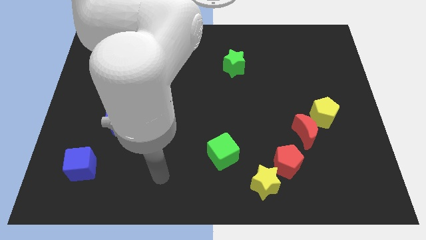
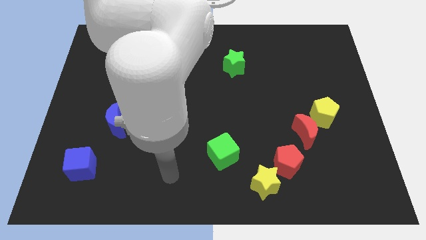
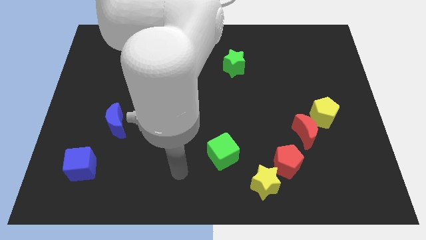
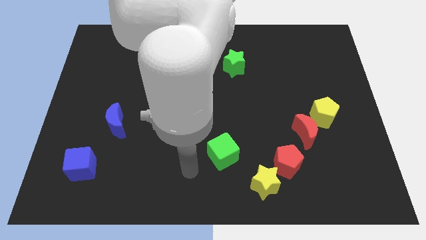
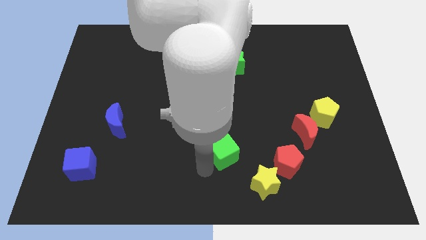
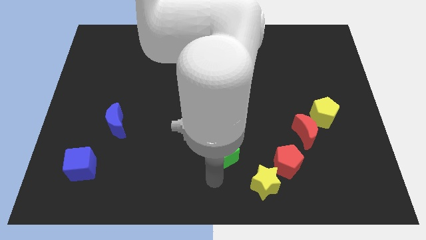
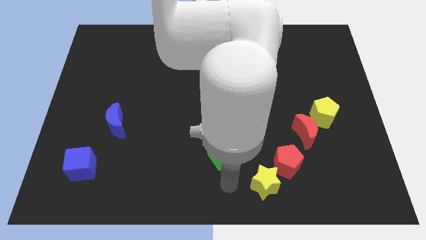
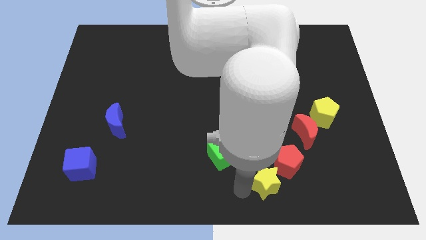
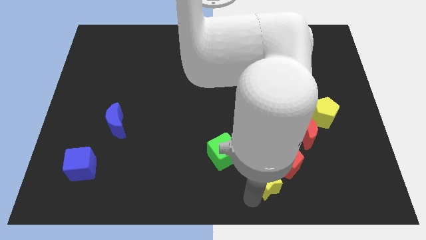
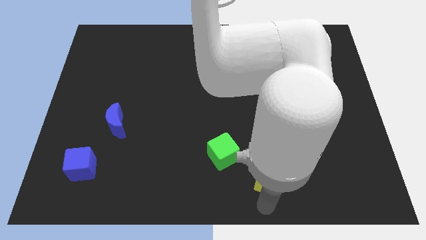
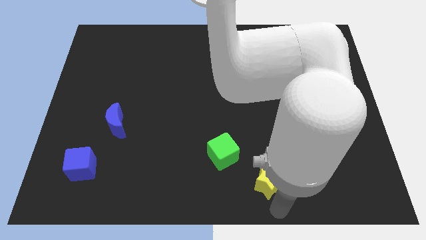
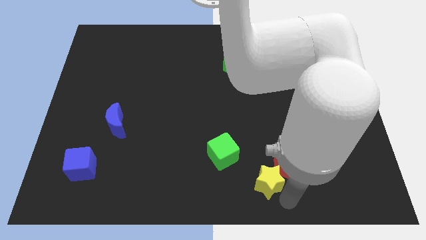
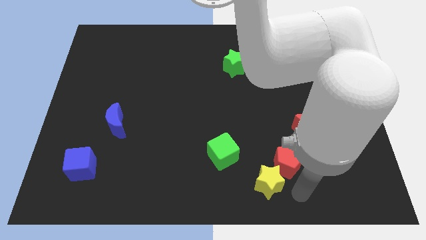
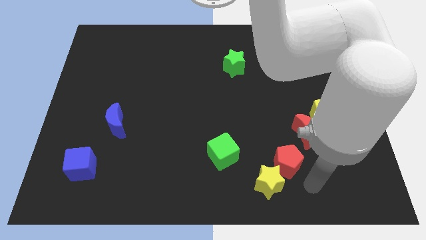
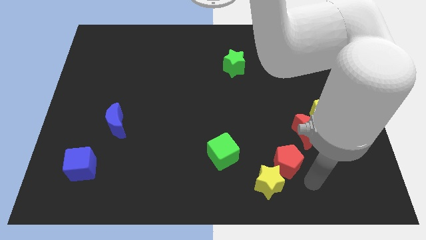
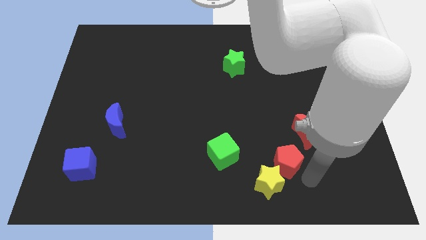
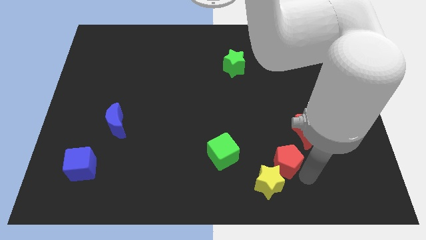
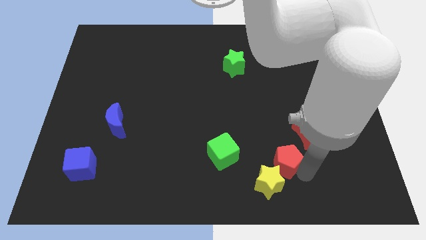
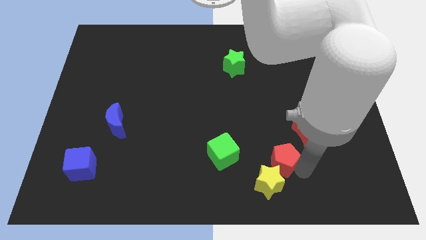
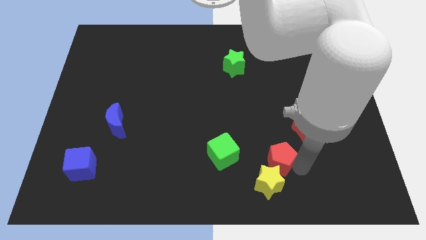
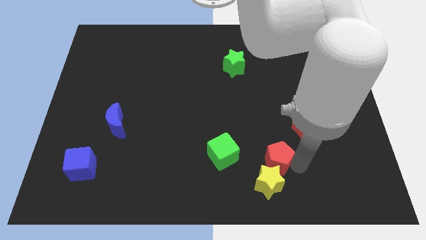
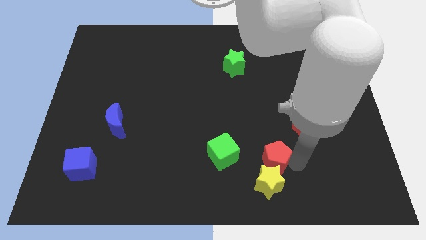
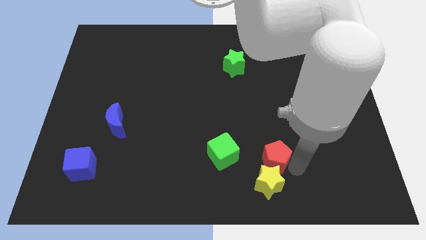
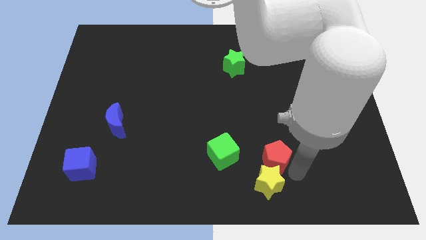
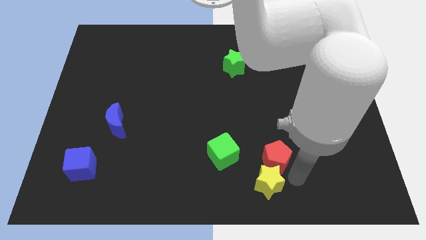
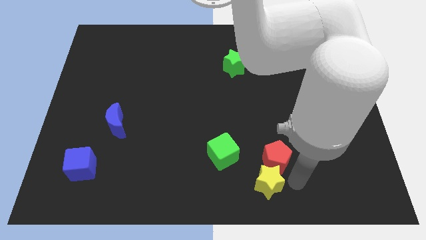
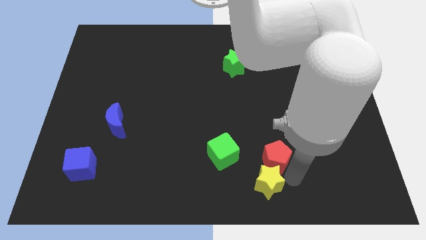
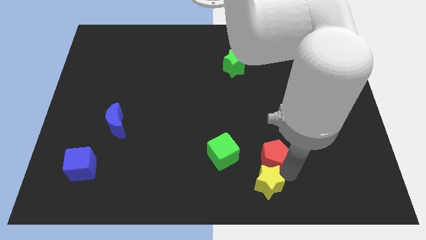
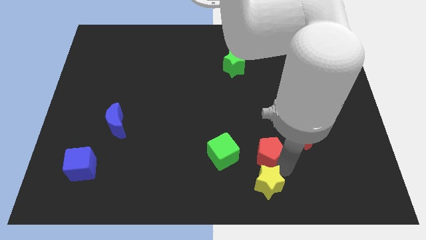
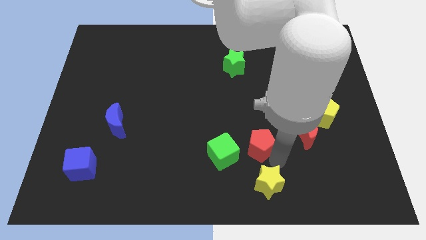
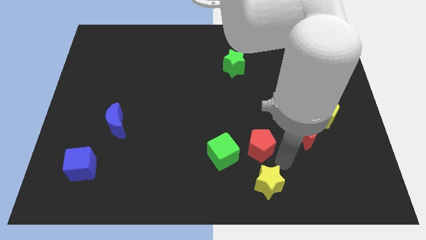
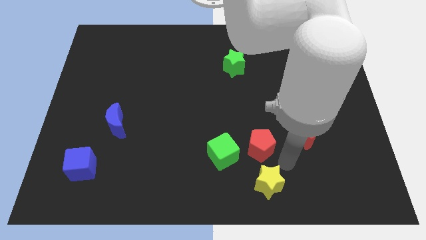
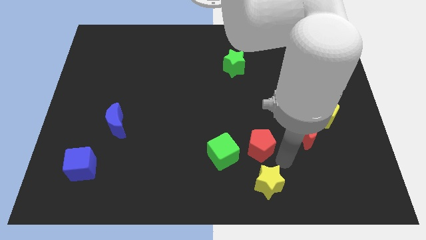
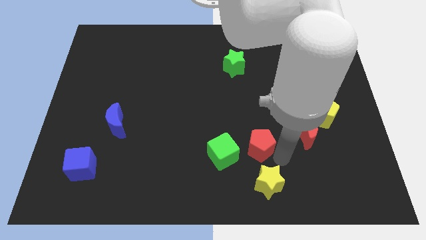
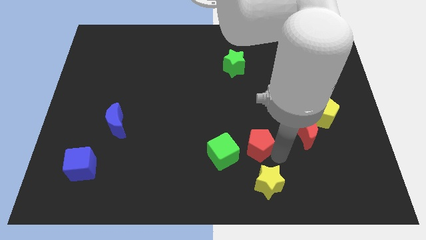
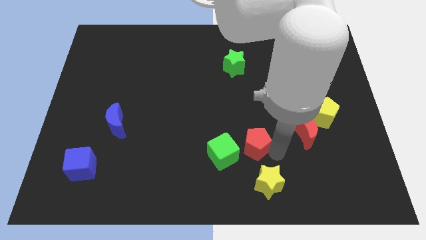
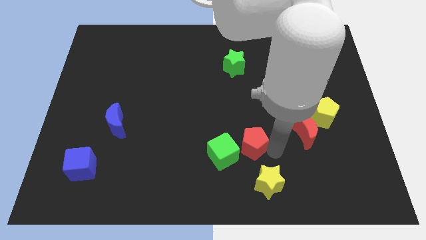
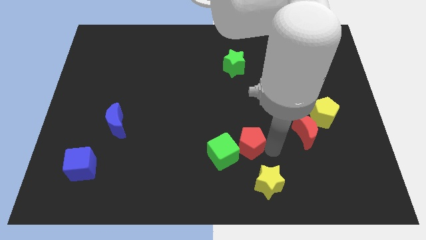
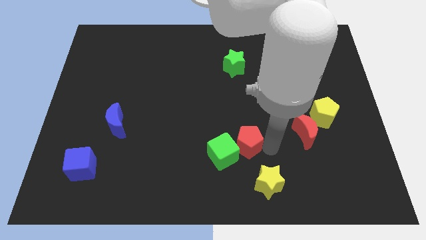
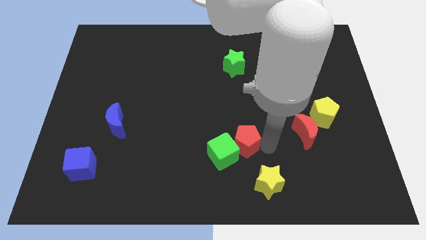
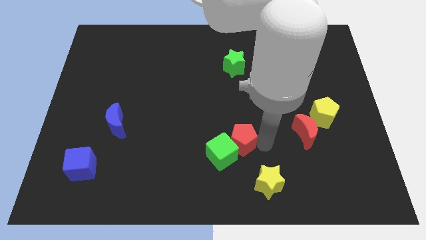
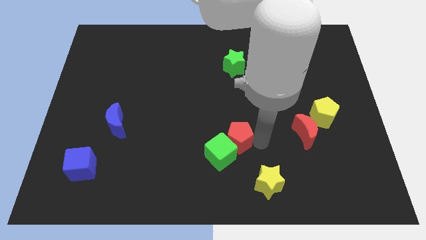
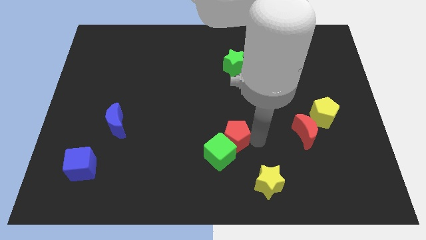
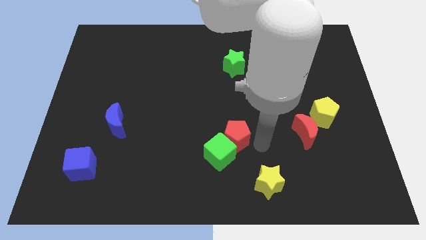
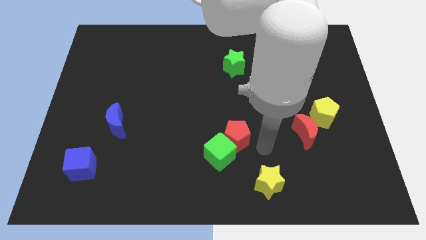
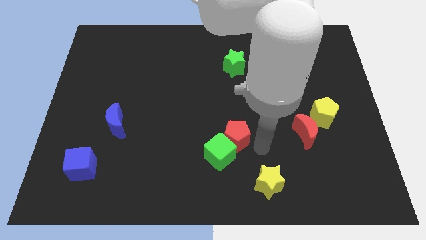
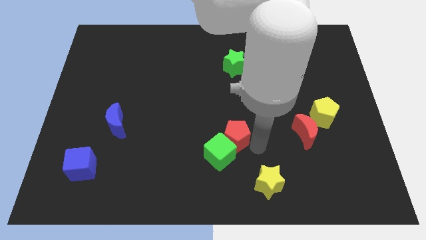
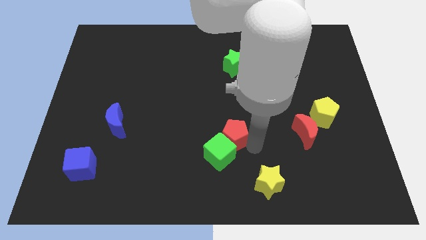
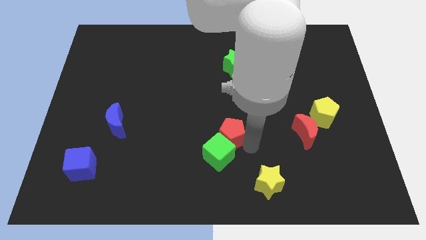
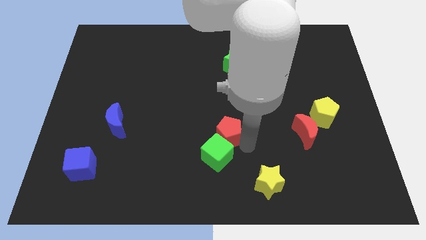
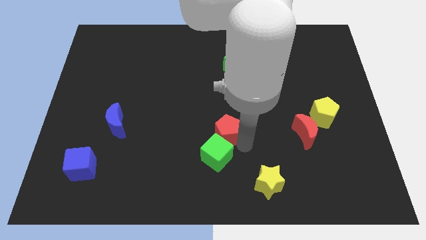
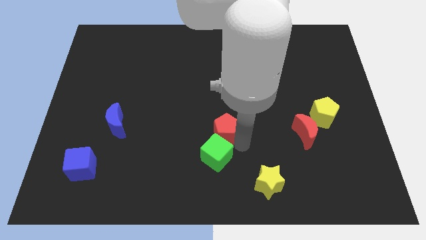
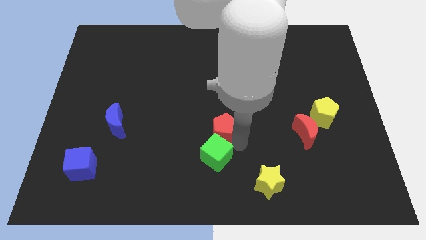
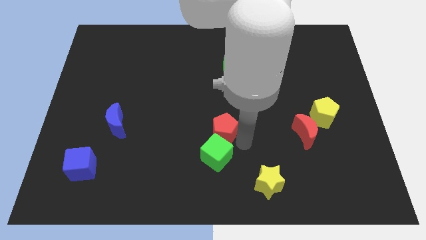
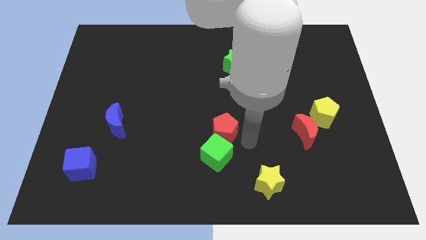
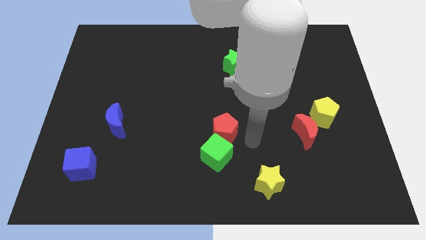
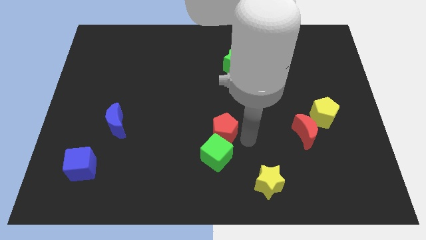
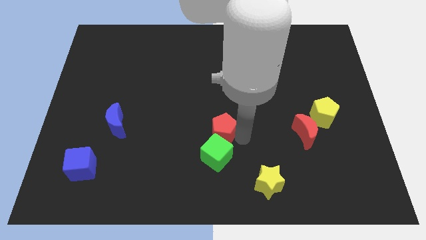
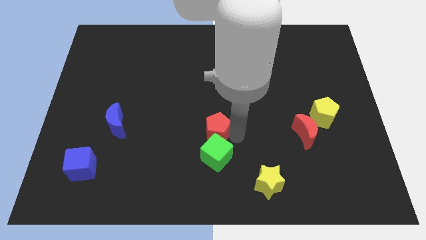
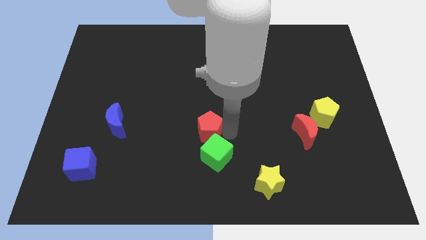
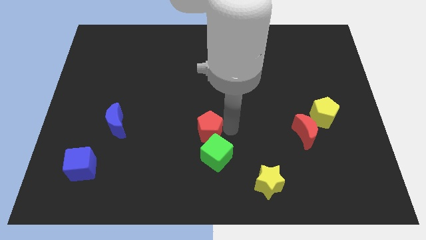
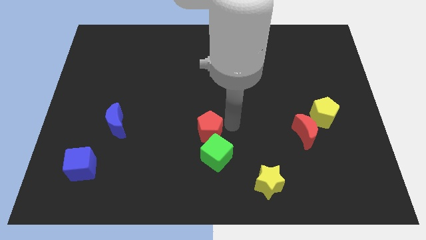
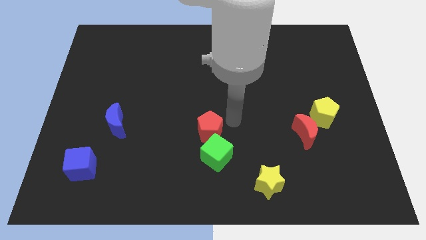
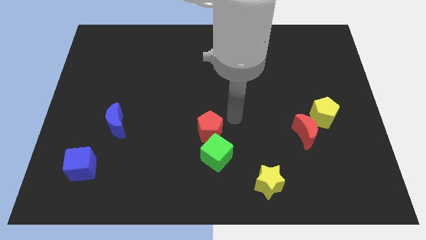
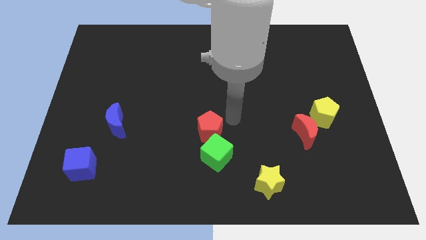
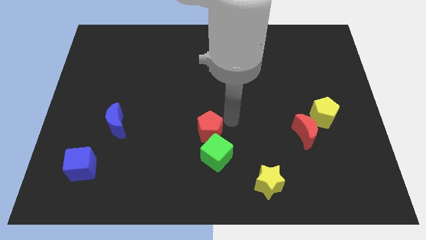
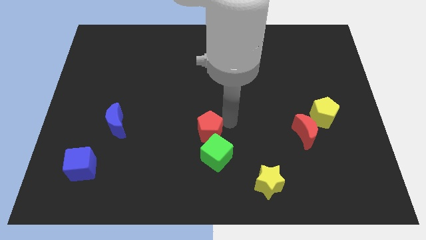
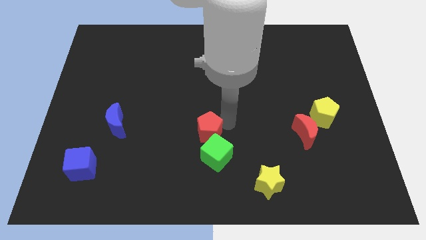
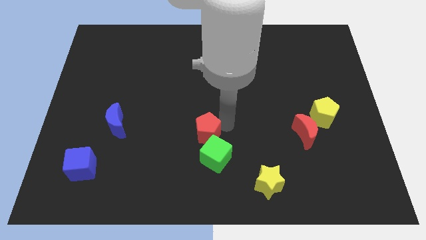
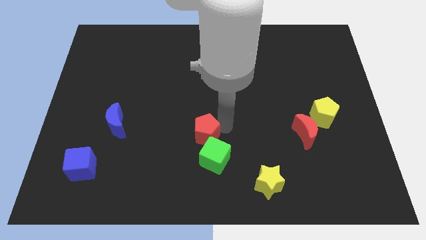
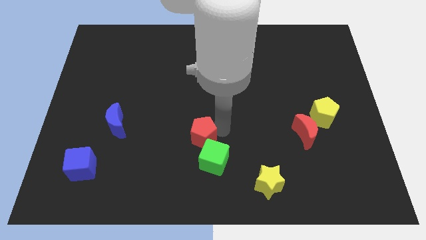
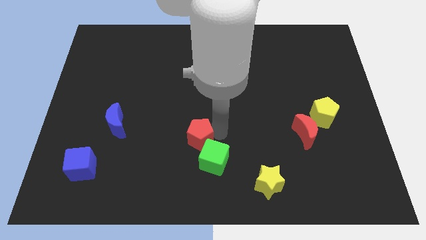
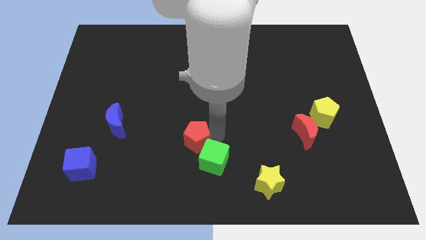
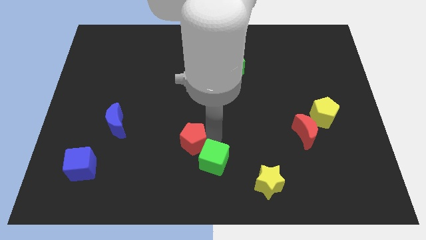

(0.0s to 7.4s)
slide the red pentagon to the left side of the green cube
